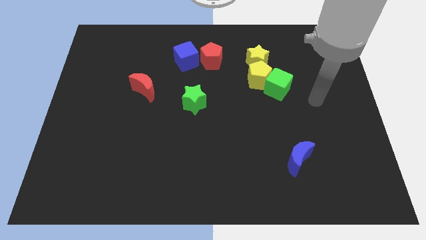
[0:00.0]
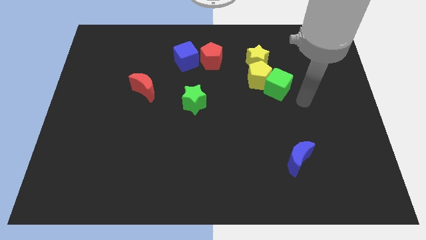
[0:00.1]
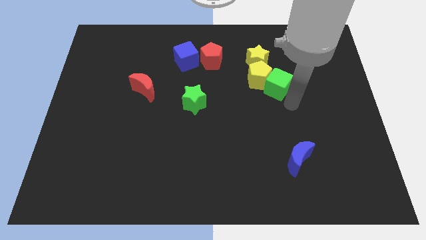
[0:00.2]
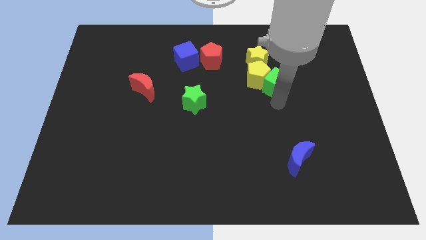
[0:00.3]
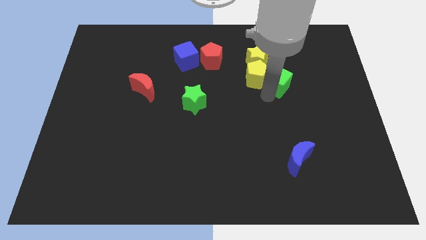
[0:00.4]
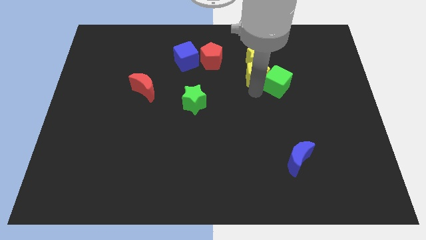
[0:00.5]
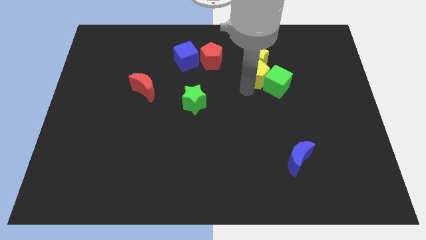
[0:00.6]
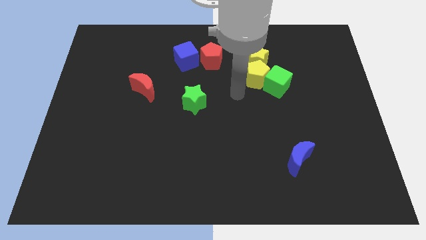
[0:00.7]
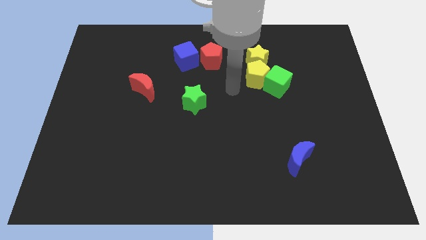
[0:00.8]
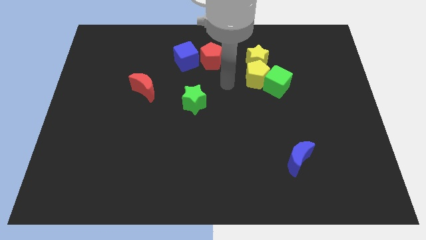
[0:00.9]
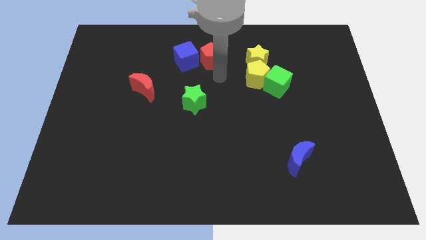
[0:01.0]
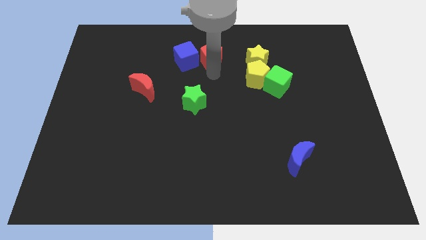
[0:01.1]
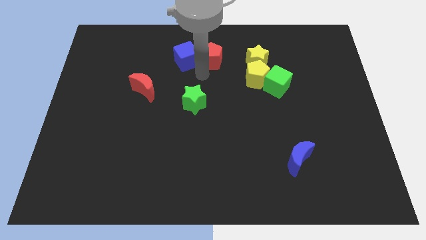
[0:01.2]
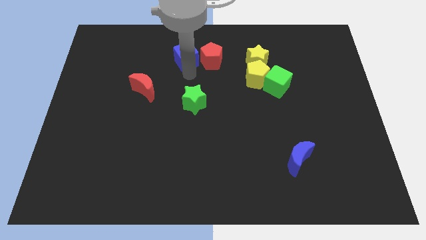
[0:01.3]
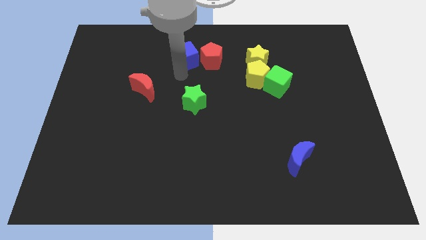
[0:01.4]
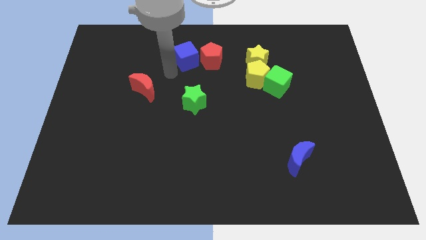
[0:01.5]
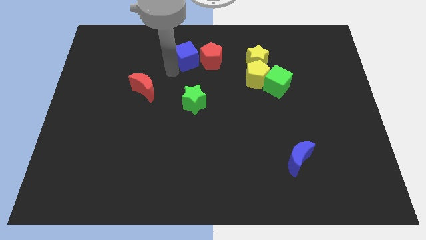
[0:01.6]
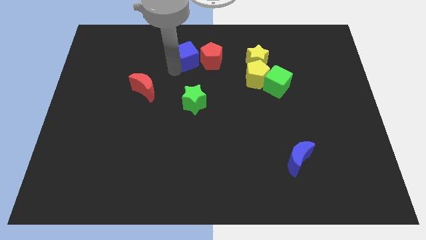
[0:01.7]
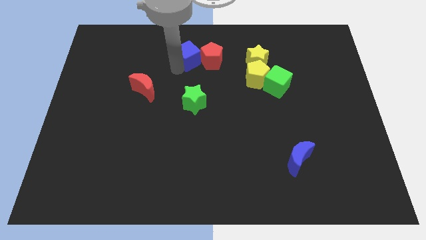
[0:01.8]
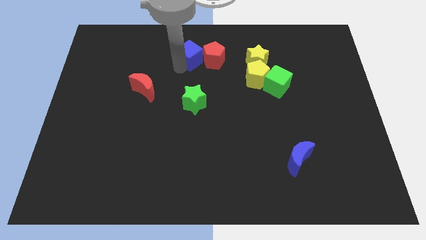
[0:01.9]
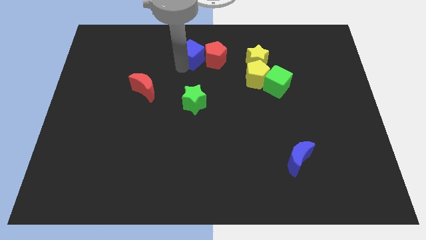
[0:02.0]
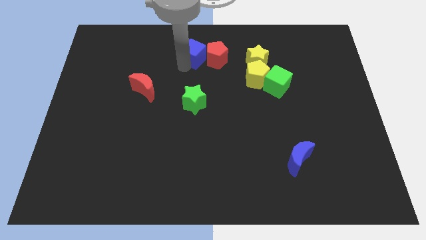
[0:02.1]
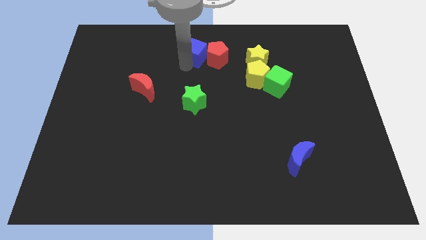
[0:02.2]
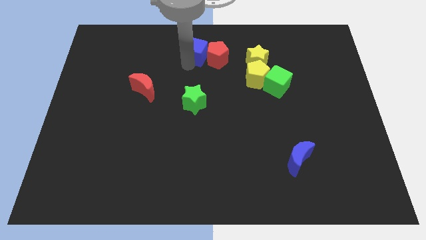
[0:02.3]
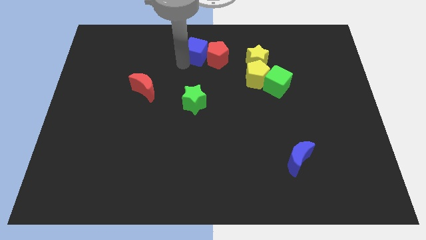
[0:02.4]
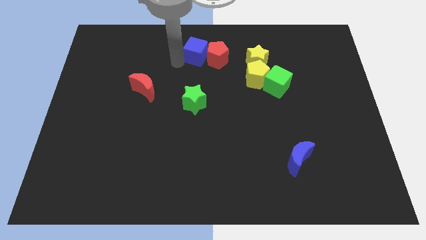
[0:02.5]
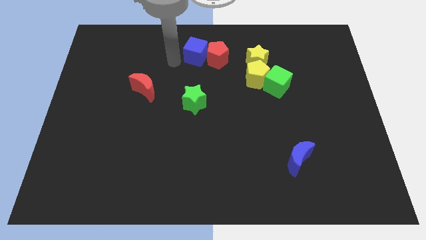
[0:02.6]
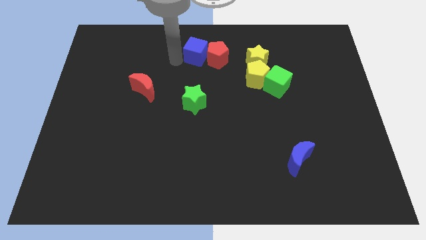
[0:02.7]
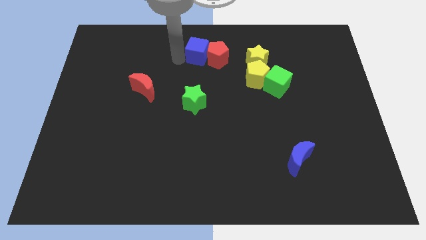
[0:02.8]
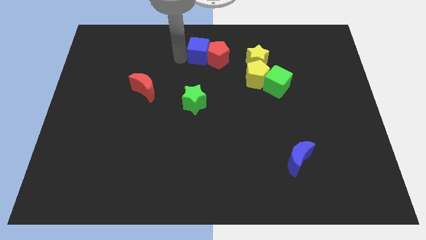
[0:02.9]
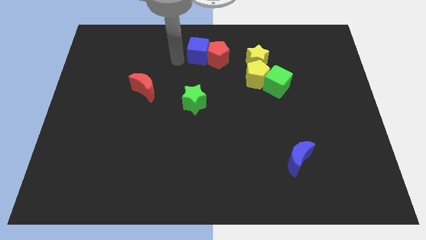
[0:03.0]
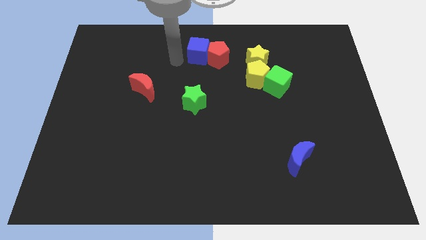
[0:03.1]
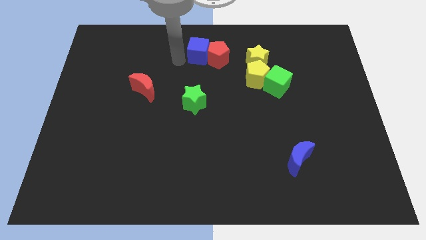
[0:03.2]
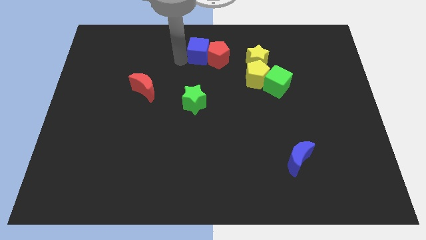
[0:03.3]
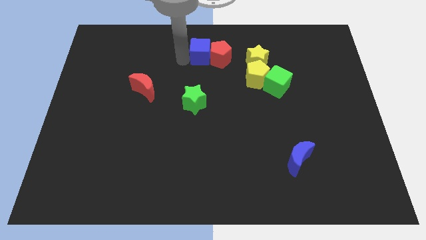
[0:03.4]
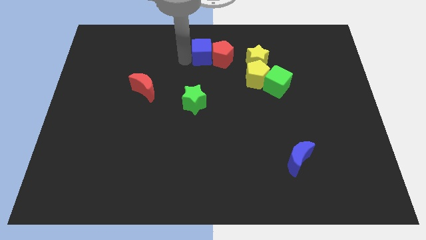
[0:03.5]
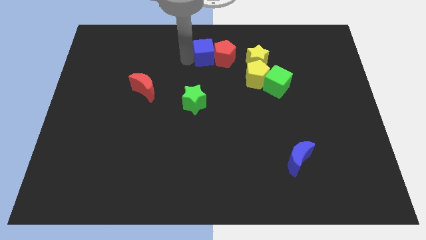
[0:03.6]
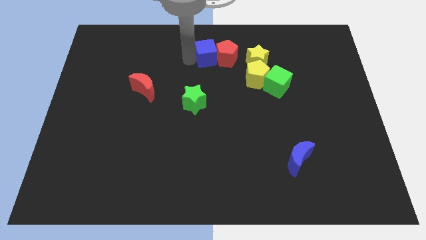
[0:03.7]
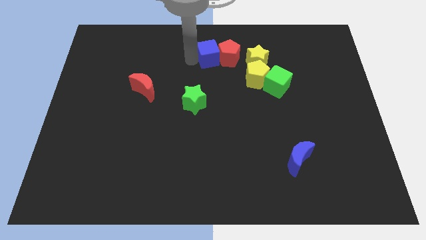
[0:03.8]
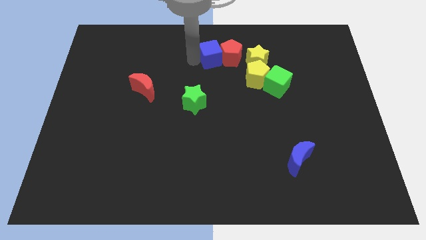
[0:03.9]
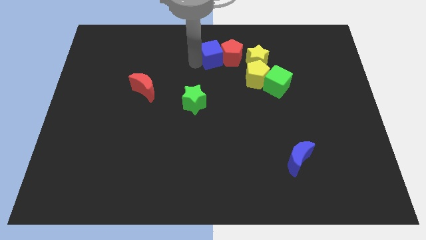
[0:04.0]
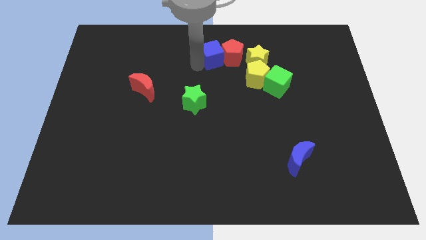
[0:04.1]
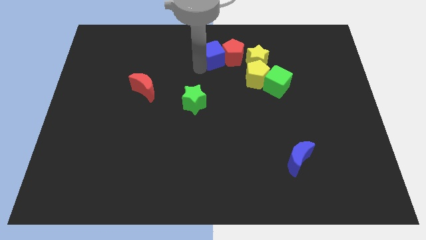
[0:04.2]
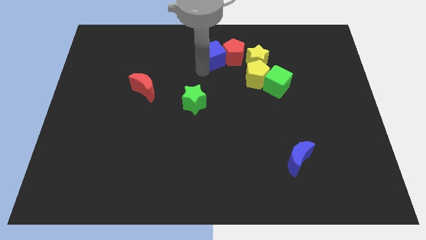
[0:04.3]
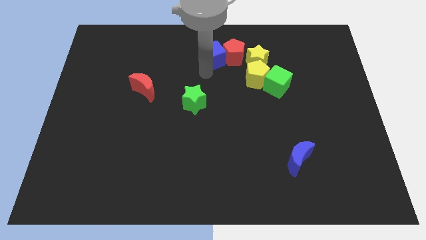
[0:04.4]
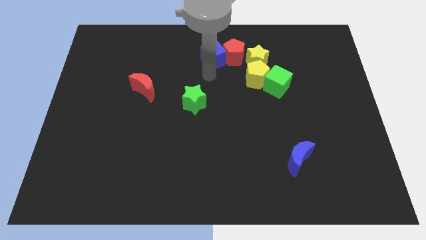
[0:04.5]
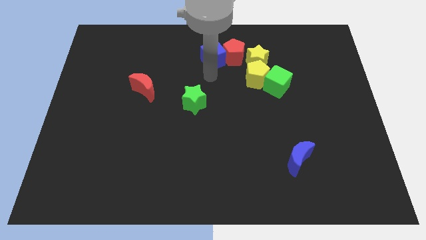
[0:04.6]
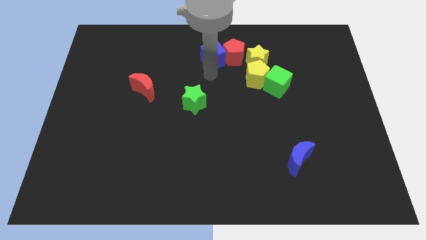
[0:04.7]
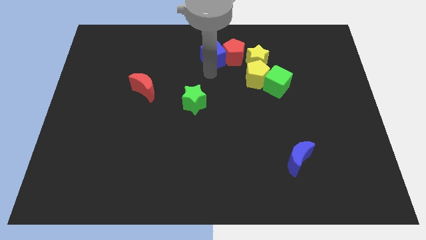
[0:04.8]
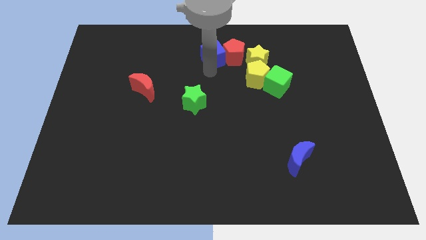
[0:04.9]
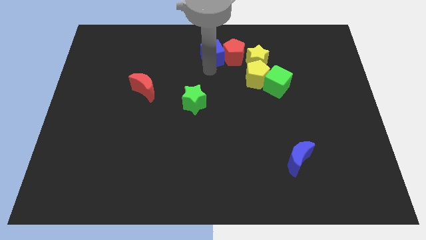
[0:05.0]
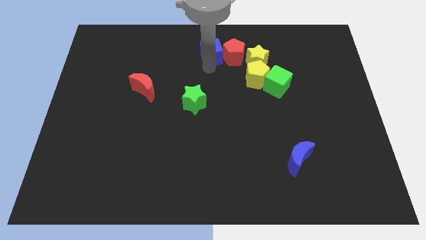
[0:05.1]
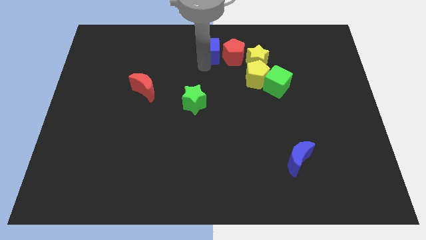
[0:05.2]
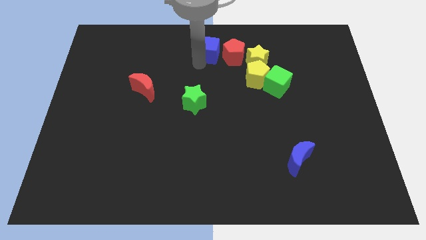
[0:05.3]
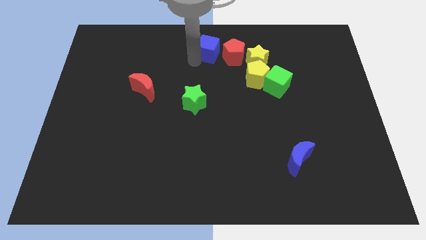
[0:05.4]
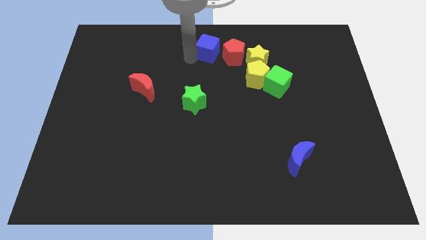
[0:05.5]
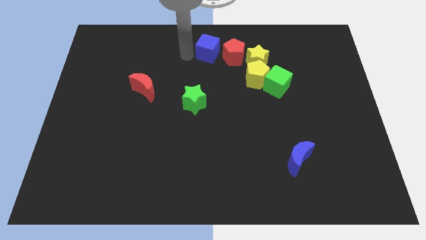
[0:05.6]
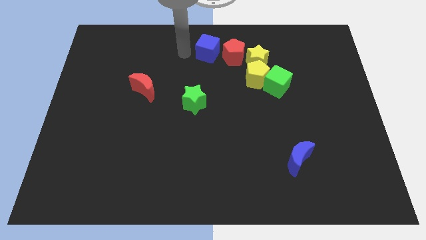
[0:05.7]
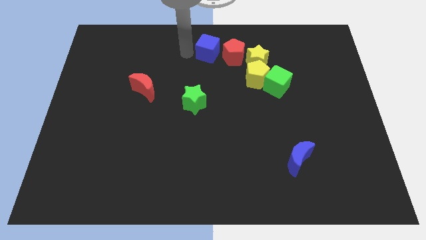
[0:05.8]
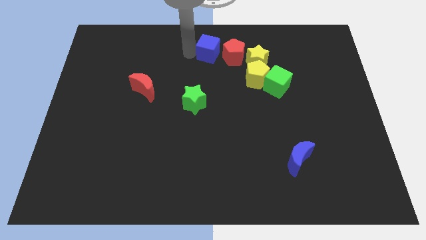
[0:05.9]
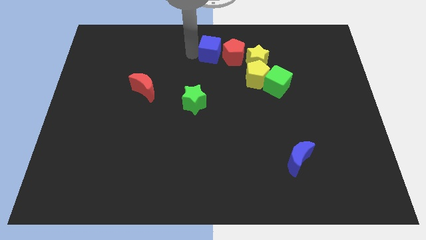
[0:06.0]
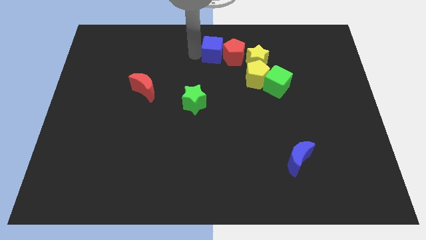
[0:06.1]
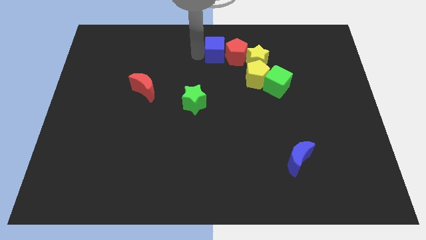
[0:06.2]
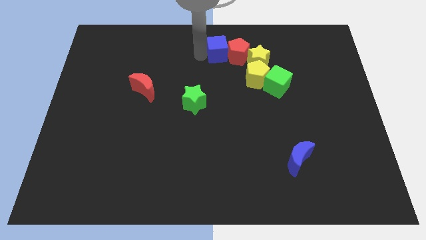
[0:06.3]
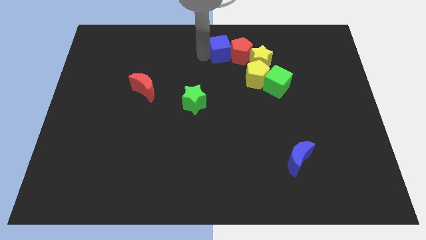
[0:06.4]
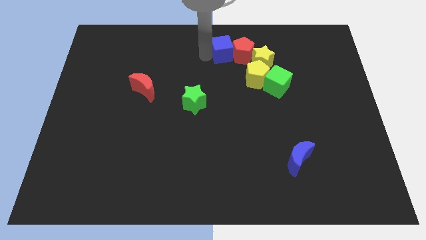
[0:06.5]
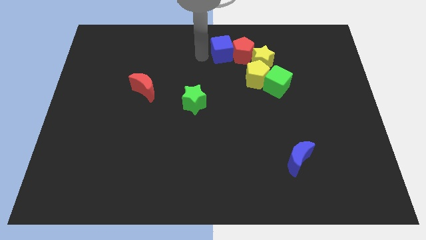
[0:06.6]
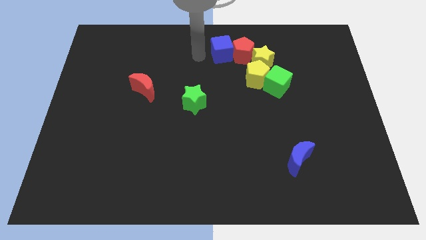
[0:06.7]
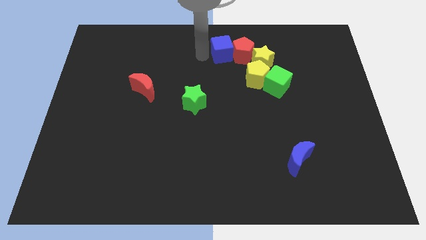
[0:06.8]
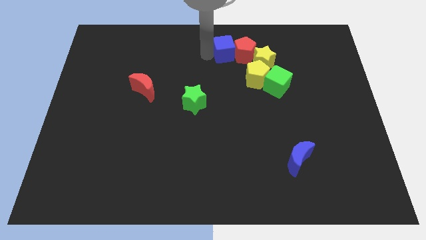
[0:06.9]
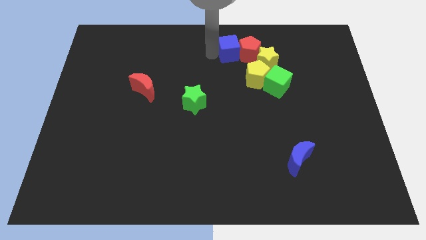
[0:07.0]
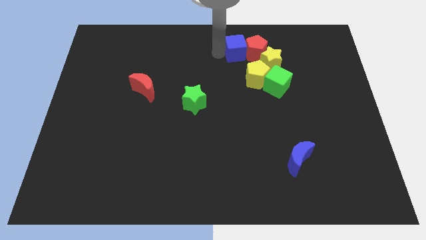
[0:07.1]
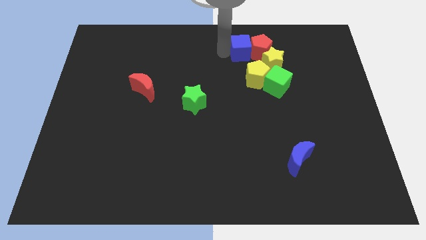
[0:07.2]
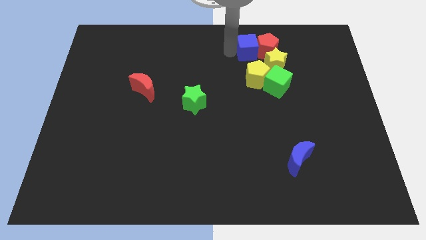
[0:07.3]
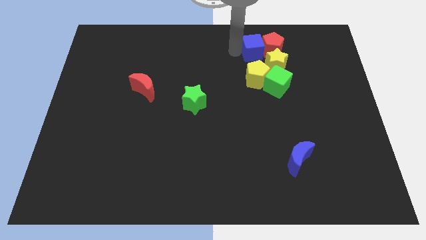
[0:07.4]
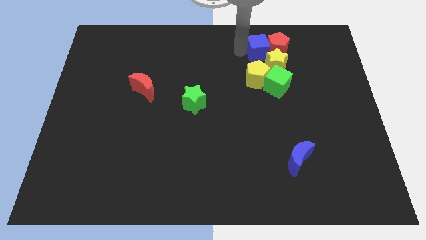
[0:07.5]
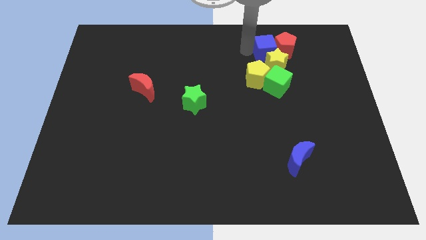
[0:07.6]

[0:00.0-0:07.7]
push the blue cube to the right

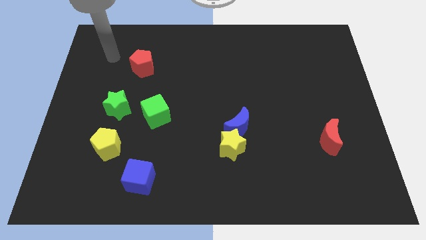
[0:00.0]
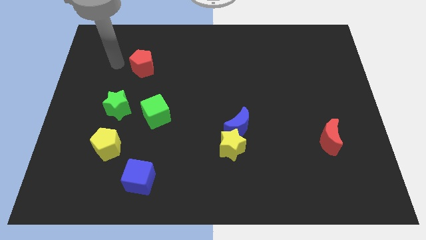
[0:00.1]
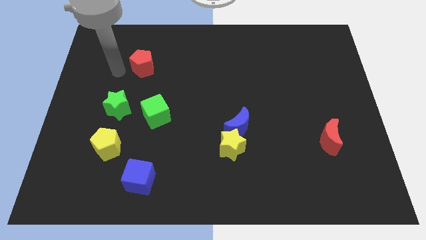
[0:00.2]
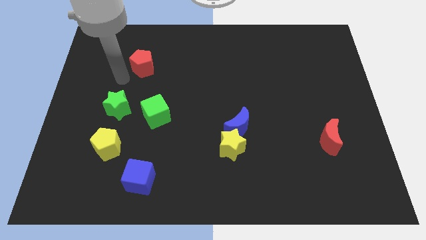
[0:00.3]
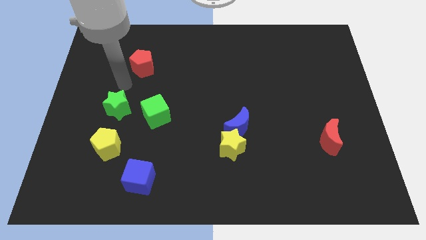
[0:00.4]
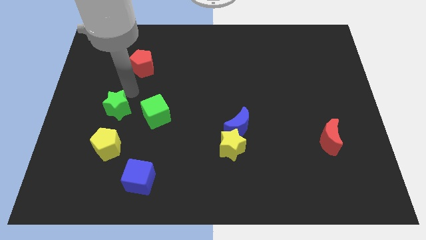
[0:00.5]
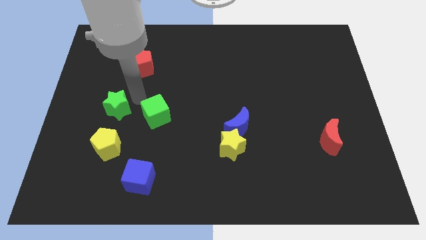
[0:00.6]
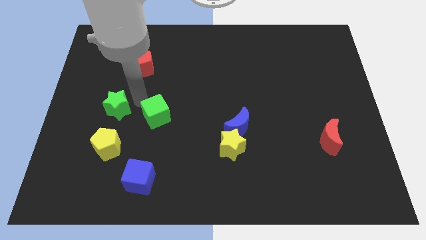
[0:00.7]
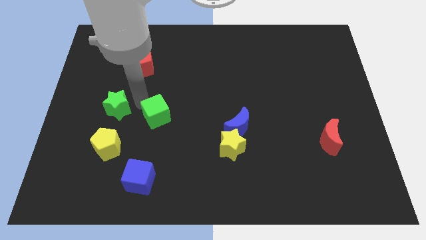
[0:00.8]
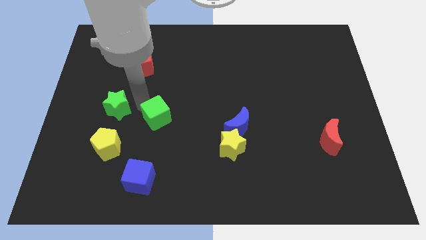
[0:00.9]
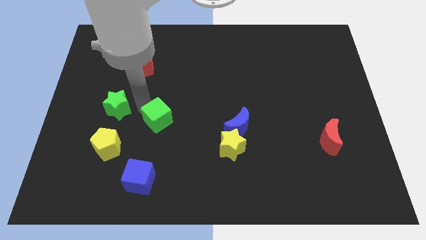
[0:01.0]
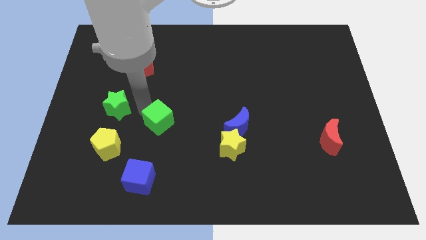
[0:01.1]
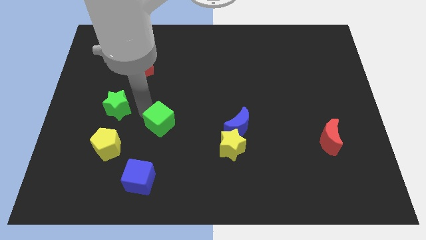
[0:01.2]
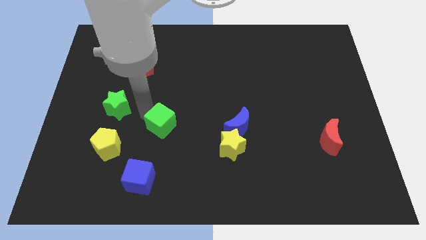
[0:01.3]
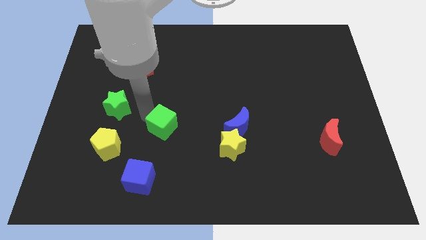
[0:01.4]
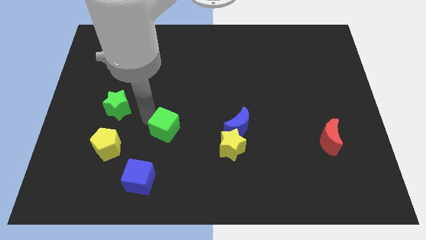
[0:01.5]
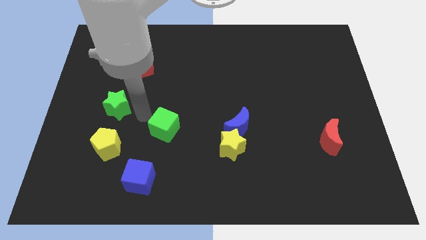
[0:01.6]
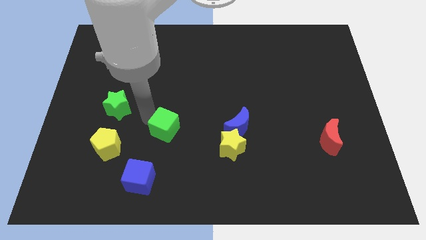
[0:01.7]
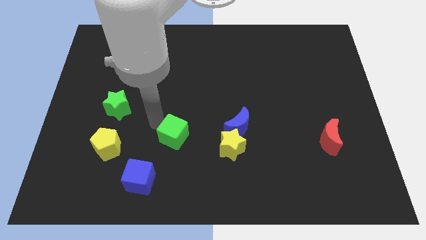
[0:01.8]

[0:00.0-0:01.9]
slightly move the green cube downwards and to the right
